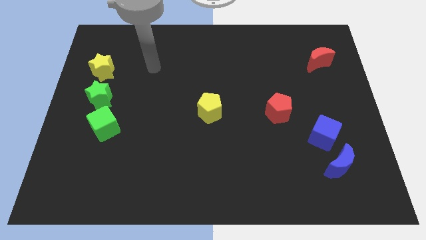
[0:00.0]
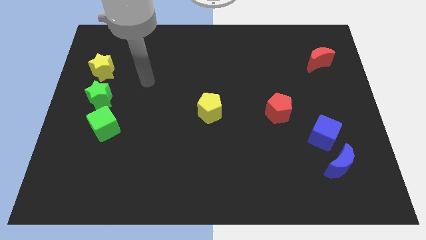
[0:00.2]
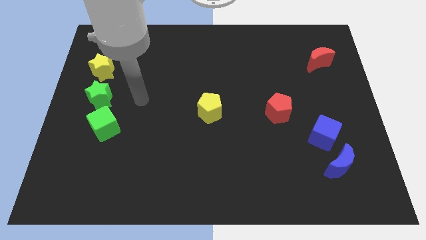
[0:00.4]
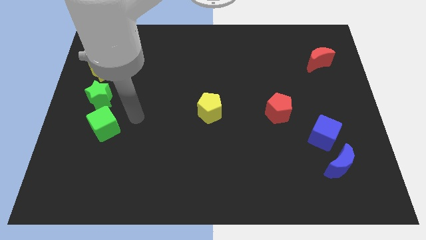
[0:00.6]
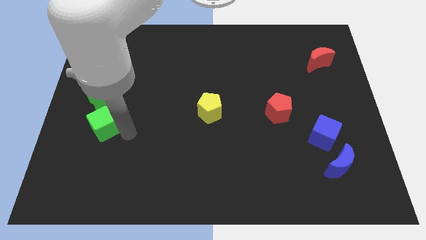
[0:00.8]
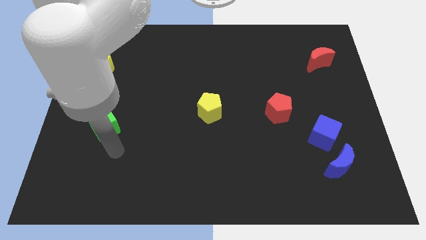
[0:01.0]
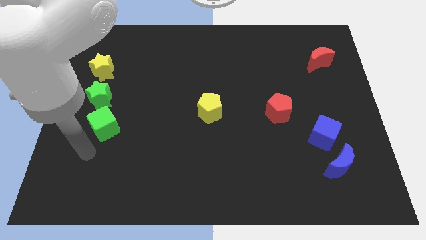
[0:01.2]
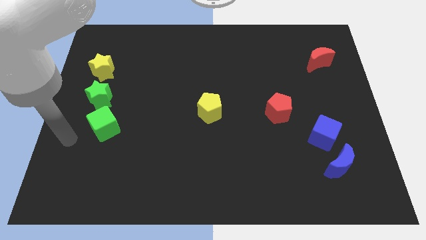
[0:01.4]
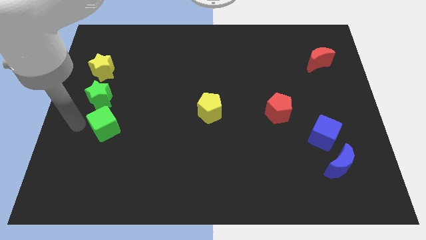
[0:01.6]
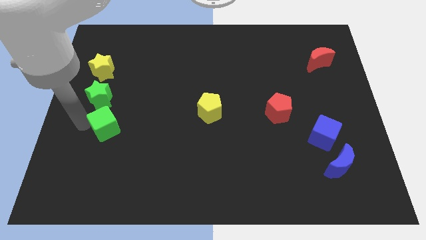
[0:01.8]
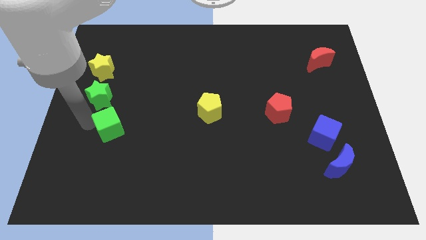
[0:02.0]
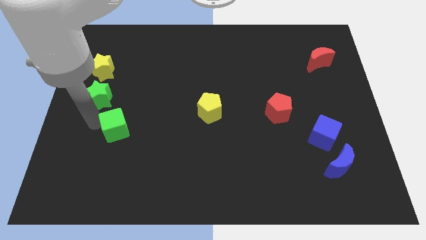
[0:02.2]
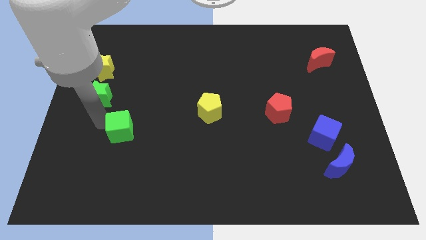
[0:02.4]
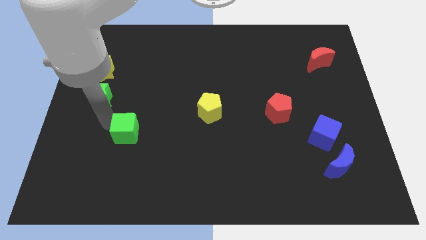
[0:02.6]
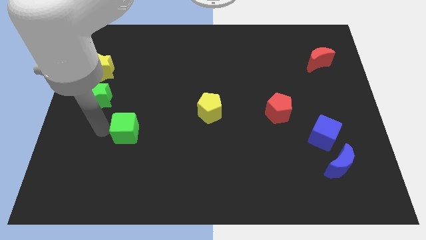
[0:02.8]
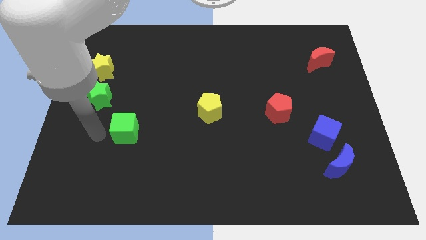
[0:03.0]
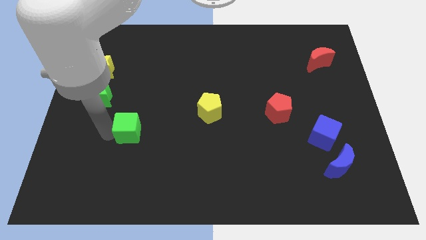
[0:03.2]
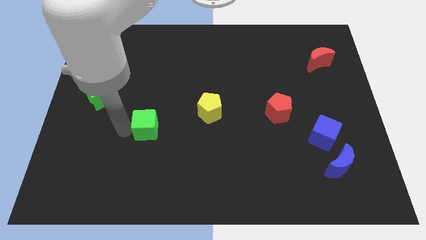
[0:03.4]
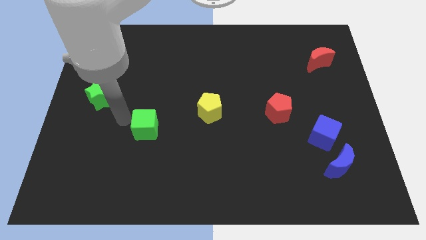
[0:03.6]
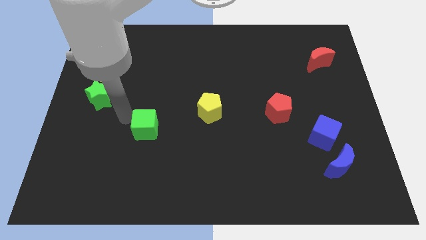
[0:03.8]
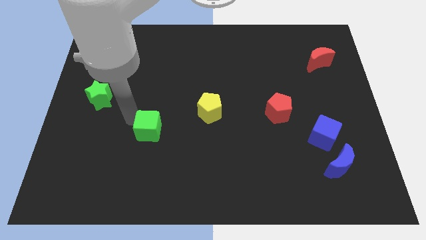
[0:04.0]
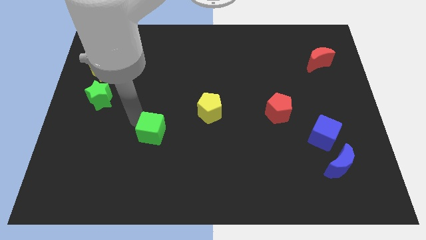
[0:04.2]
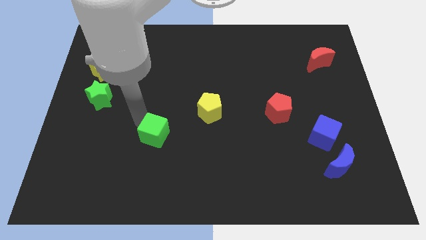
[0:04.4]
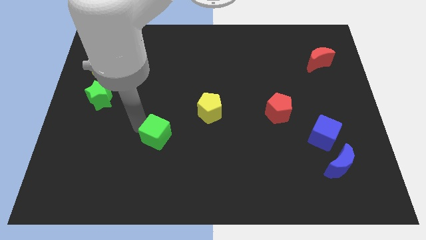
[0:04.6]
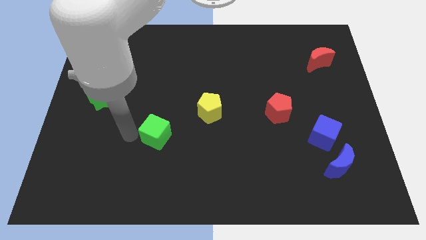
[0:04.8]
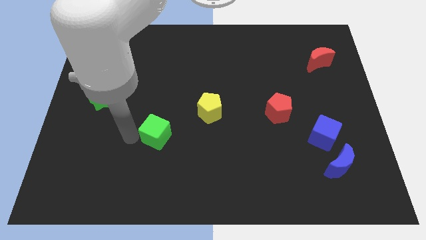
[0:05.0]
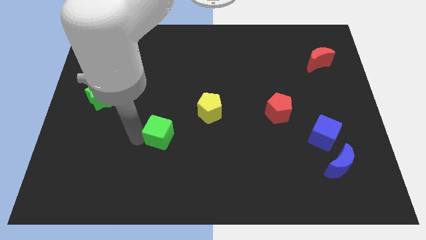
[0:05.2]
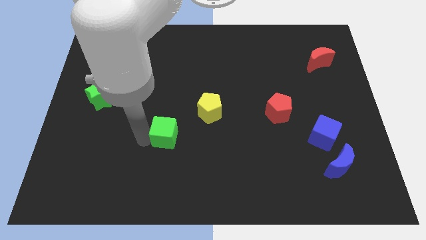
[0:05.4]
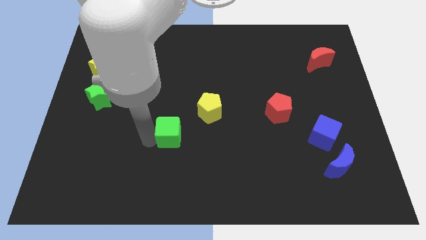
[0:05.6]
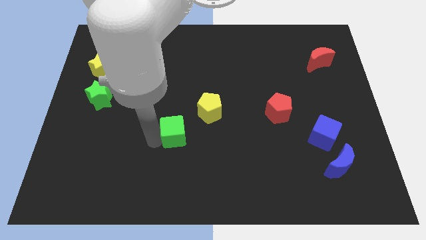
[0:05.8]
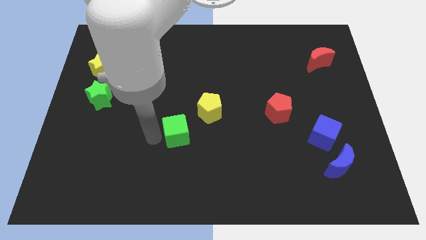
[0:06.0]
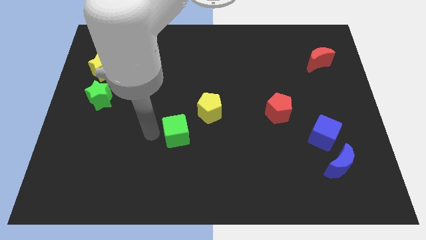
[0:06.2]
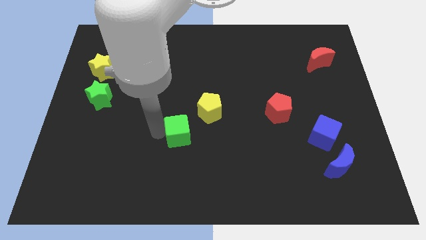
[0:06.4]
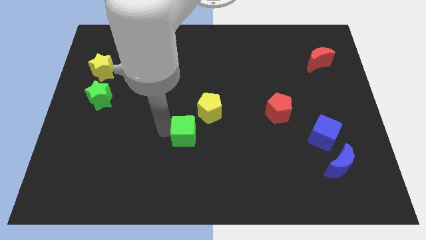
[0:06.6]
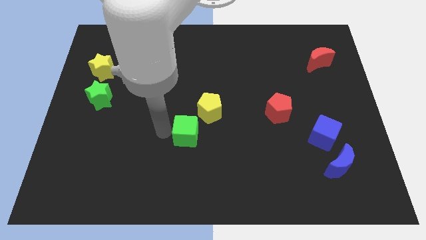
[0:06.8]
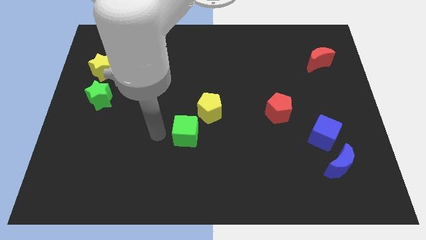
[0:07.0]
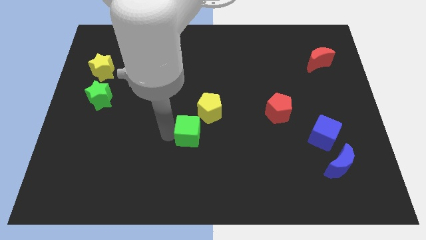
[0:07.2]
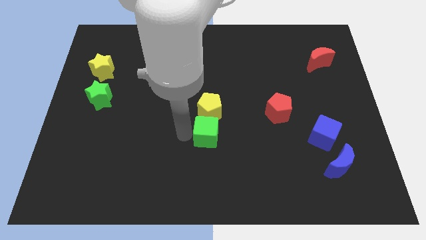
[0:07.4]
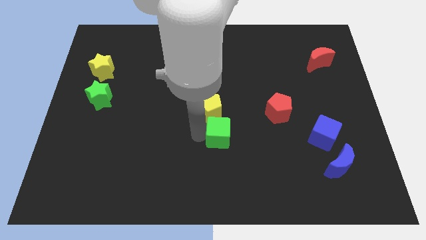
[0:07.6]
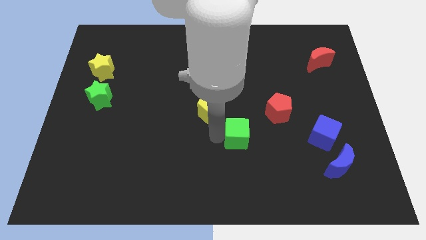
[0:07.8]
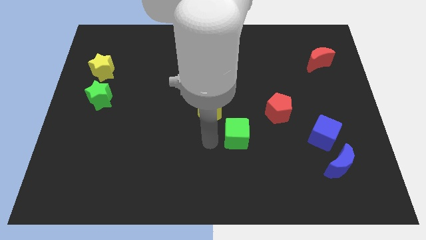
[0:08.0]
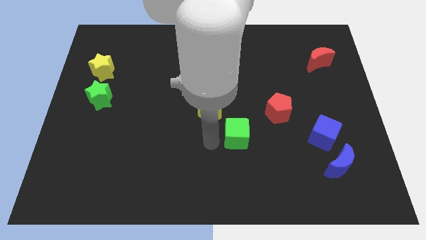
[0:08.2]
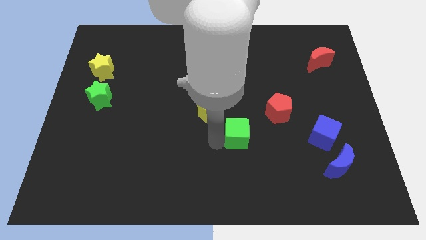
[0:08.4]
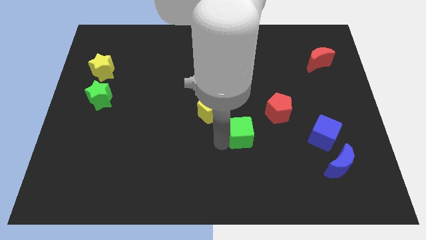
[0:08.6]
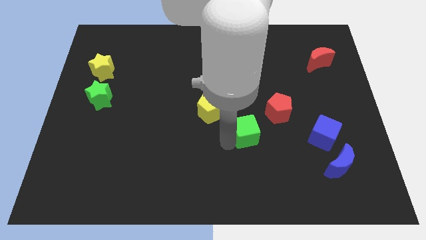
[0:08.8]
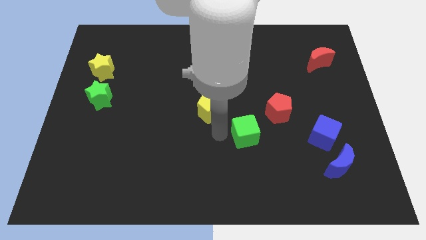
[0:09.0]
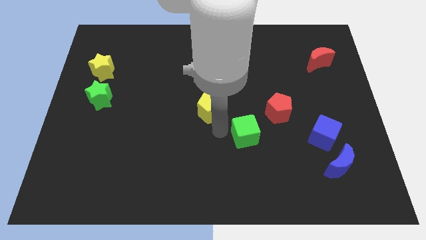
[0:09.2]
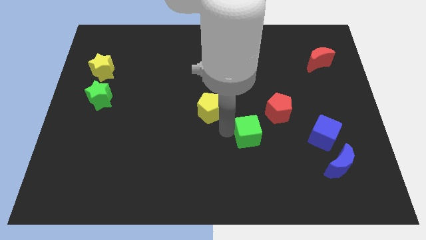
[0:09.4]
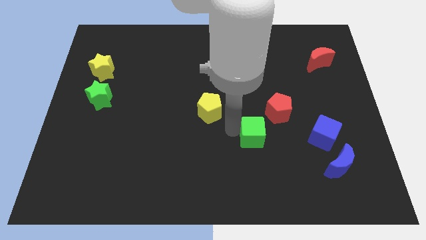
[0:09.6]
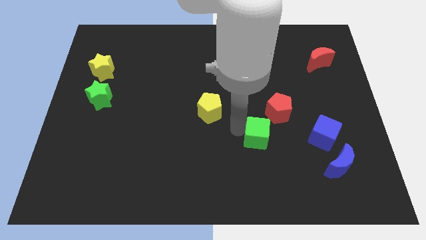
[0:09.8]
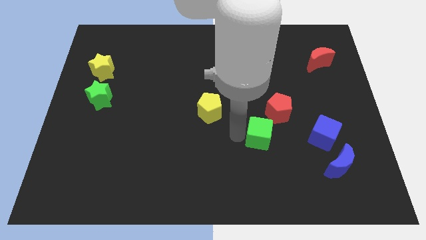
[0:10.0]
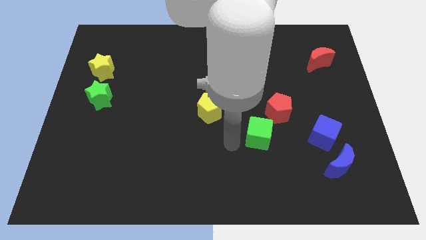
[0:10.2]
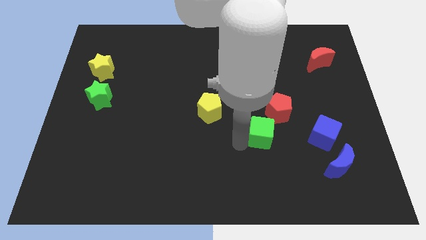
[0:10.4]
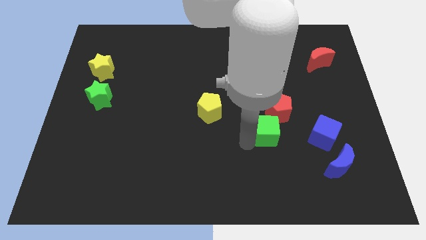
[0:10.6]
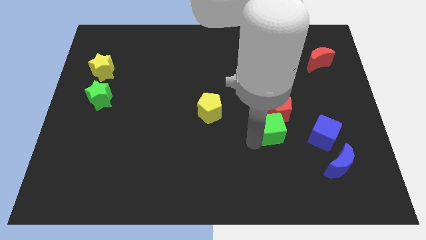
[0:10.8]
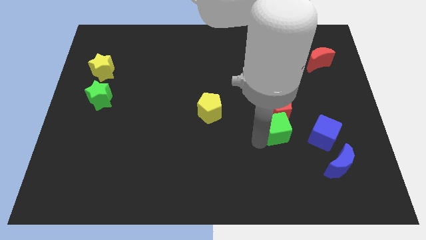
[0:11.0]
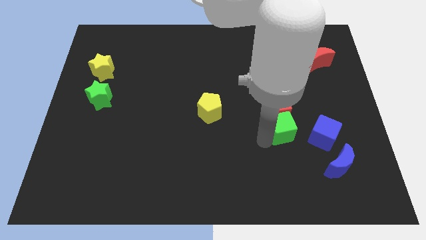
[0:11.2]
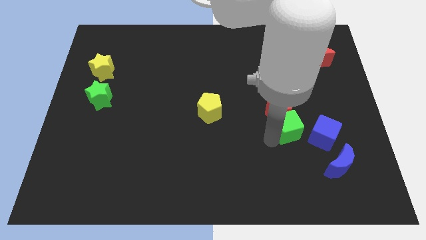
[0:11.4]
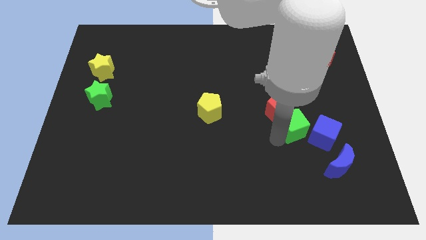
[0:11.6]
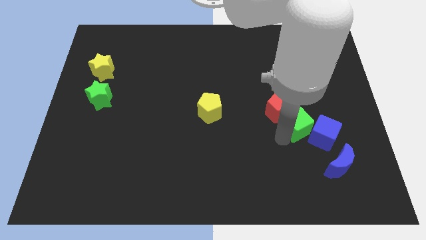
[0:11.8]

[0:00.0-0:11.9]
slide the green cube to the right of the red pentagon
